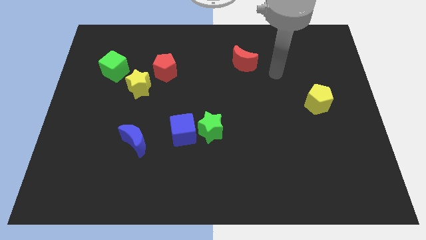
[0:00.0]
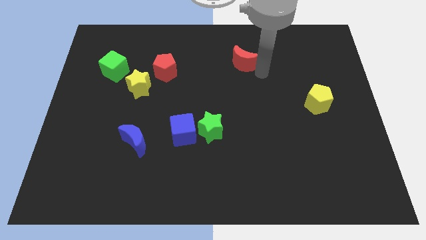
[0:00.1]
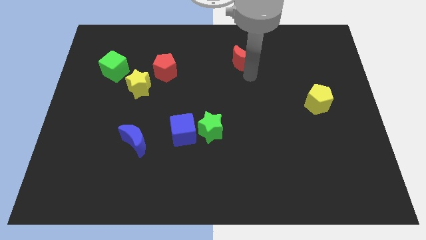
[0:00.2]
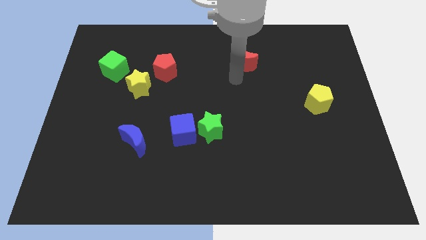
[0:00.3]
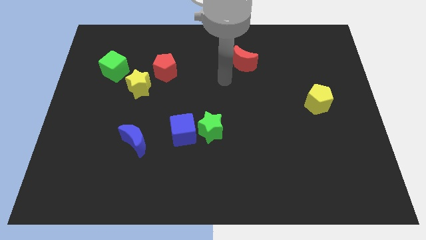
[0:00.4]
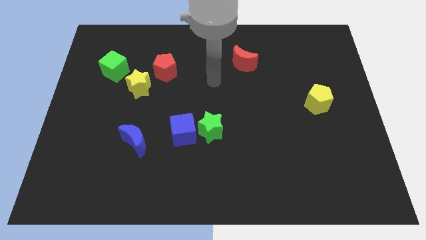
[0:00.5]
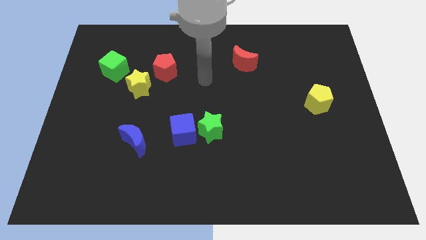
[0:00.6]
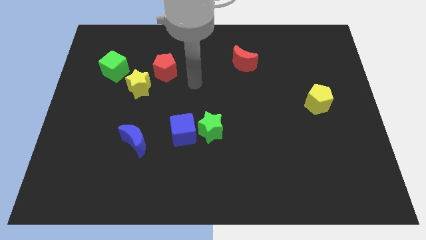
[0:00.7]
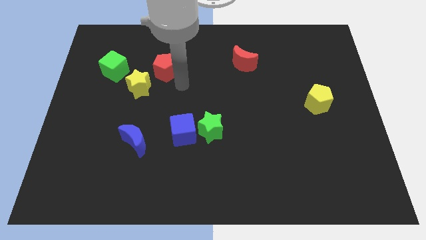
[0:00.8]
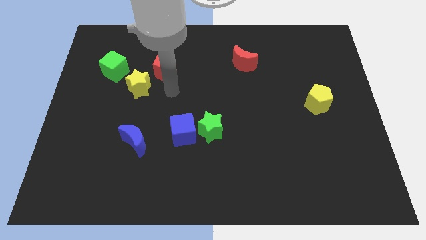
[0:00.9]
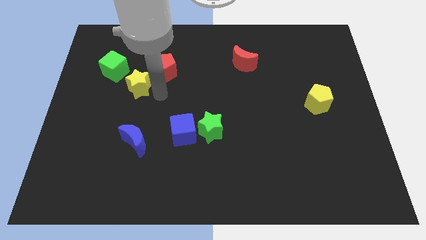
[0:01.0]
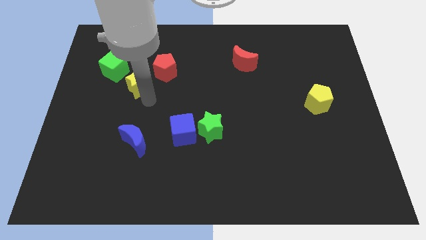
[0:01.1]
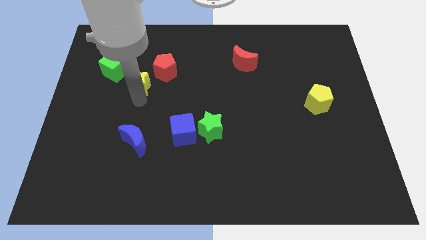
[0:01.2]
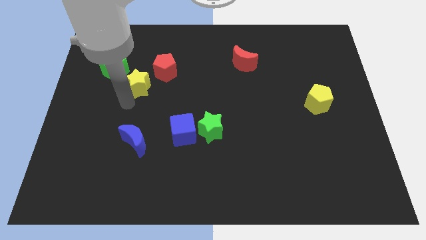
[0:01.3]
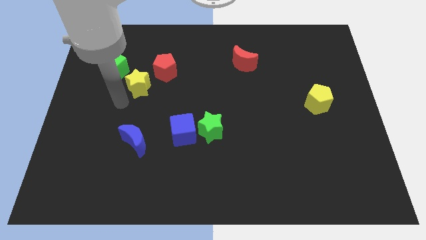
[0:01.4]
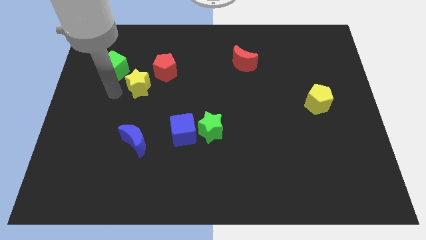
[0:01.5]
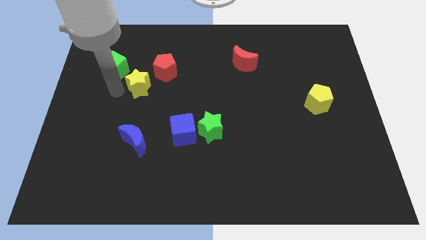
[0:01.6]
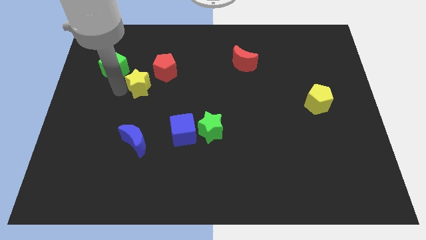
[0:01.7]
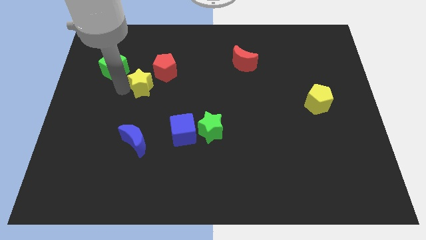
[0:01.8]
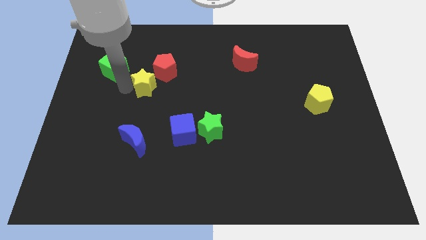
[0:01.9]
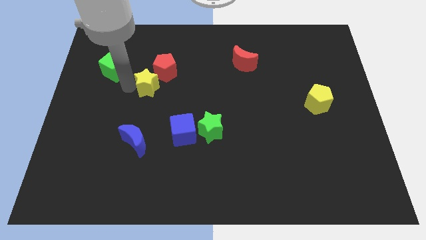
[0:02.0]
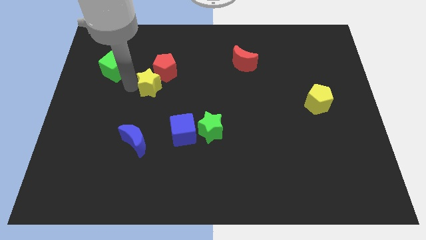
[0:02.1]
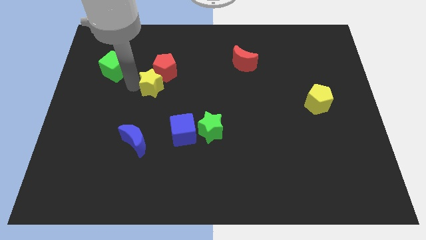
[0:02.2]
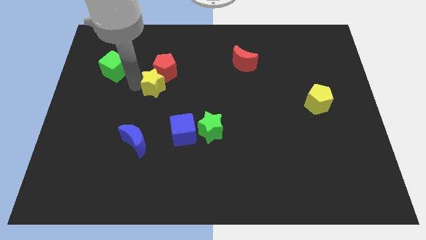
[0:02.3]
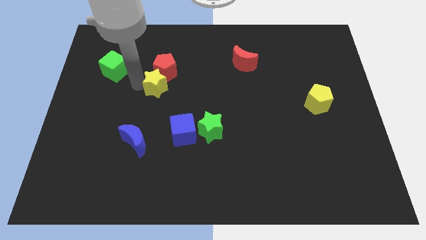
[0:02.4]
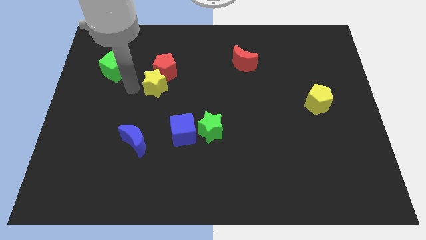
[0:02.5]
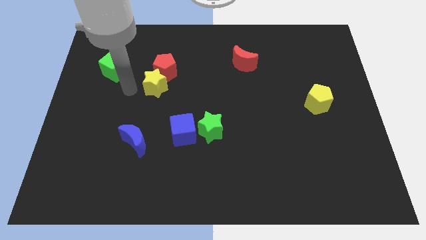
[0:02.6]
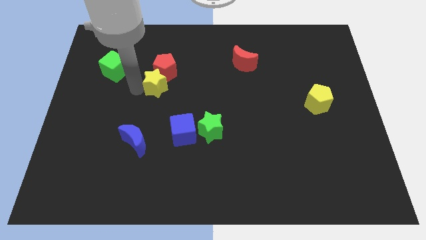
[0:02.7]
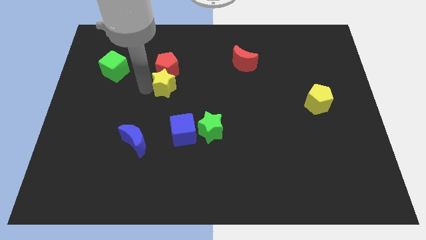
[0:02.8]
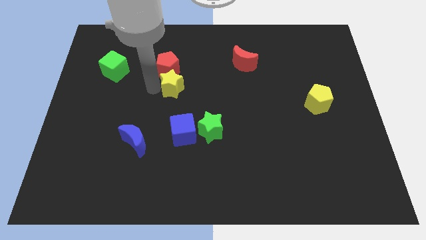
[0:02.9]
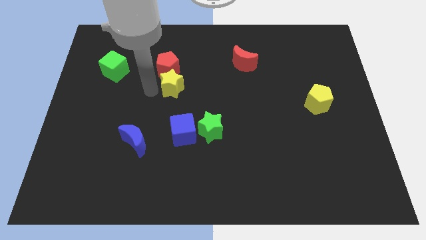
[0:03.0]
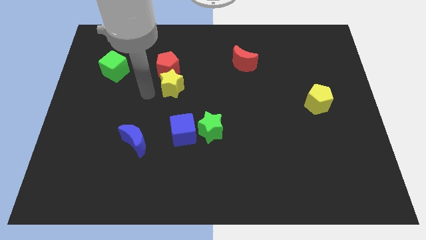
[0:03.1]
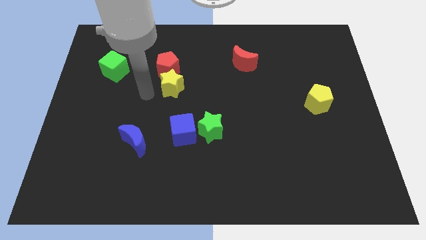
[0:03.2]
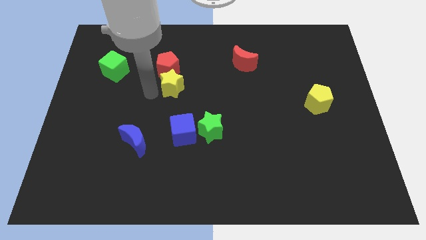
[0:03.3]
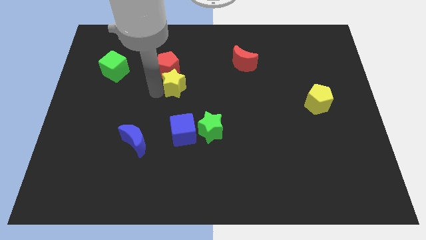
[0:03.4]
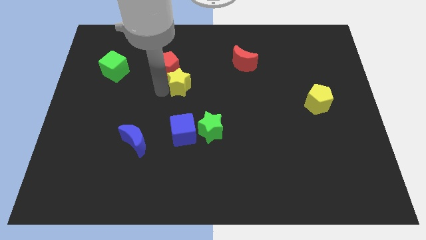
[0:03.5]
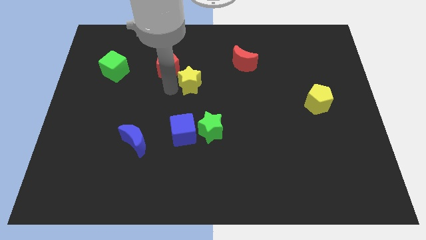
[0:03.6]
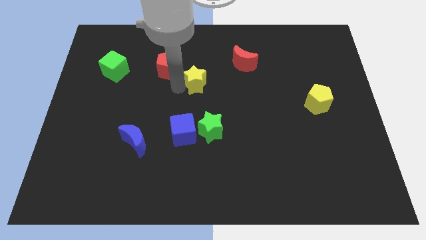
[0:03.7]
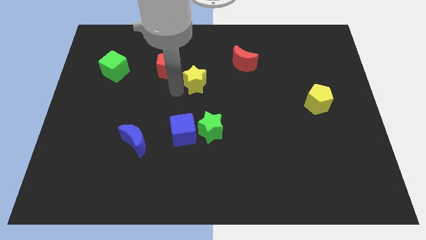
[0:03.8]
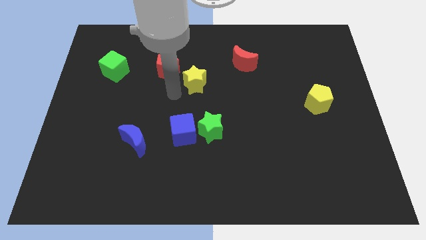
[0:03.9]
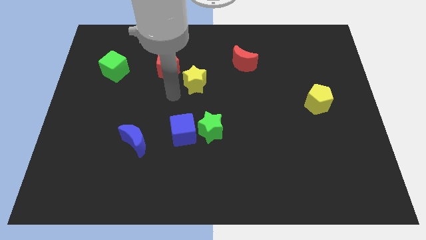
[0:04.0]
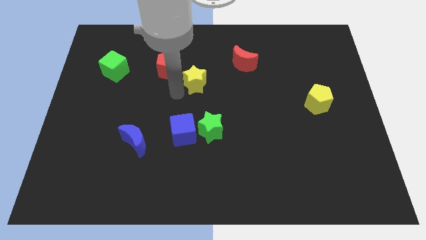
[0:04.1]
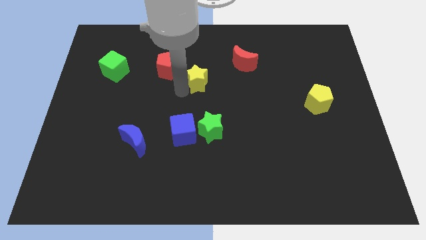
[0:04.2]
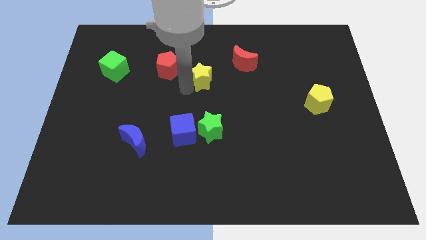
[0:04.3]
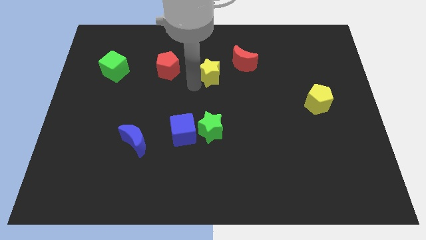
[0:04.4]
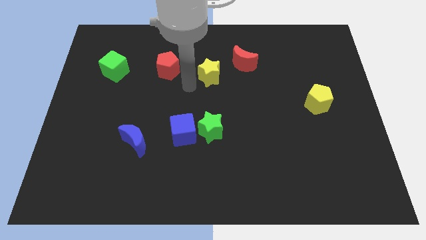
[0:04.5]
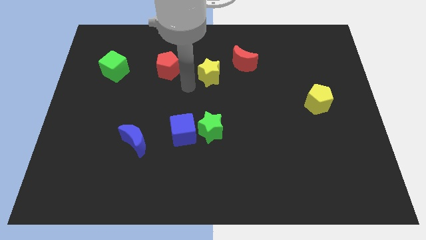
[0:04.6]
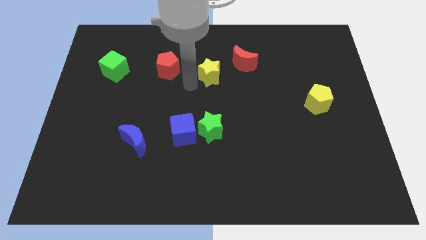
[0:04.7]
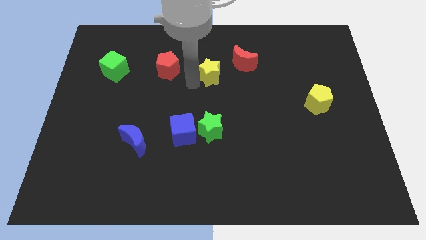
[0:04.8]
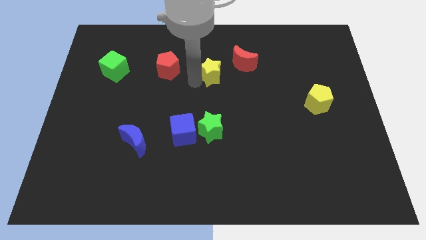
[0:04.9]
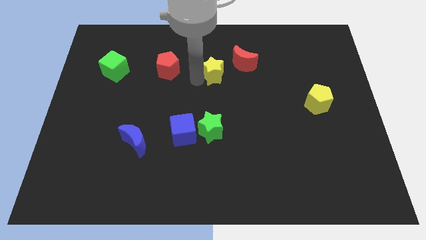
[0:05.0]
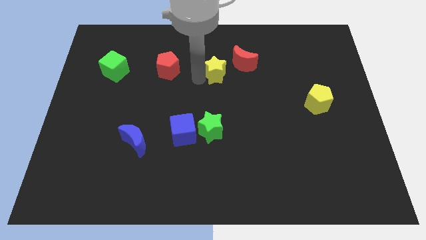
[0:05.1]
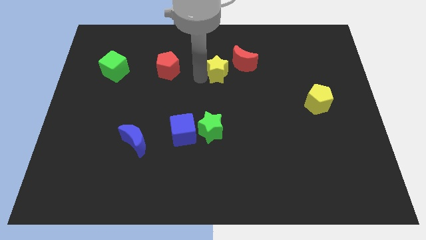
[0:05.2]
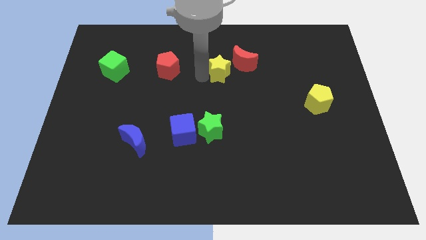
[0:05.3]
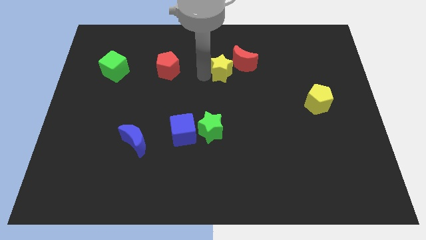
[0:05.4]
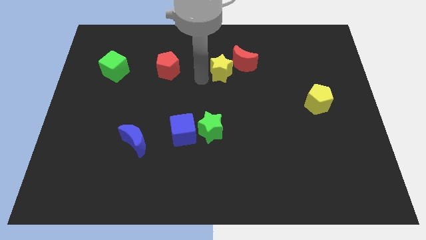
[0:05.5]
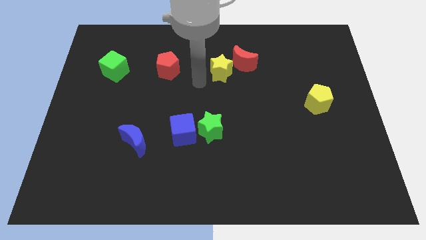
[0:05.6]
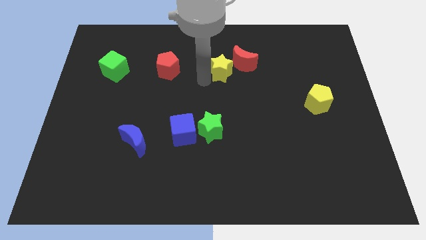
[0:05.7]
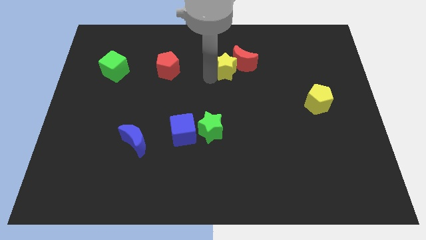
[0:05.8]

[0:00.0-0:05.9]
slide the yellow star to the red moon

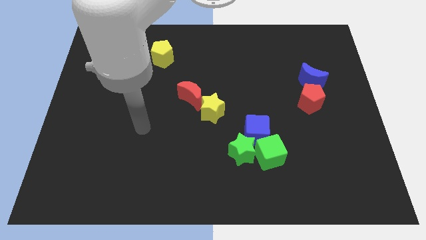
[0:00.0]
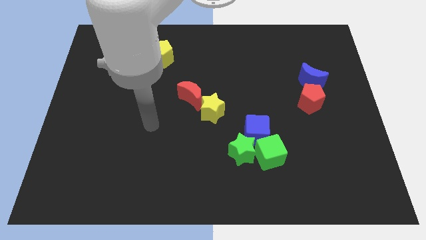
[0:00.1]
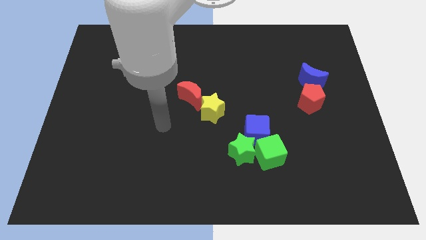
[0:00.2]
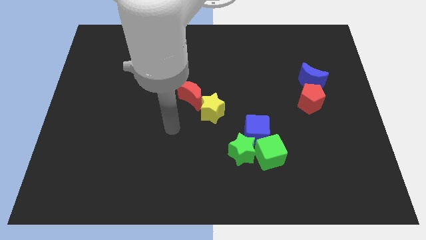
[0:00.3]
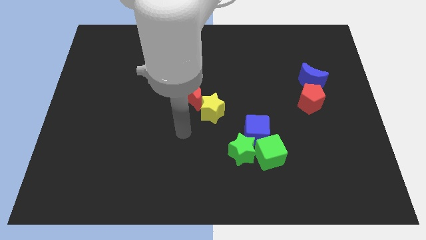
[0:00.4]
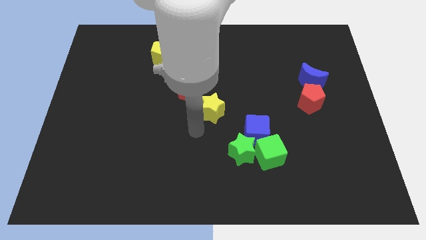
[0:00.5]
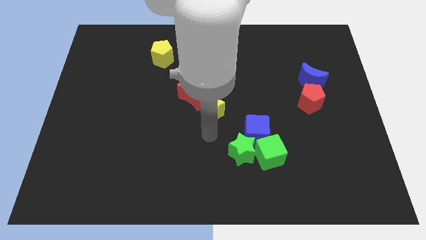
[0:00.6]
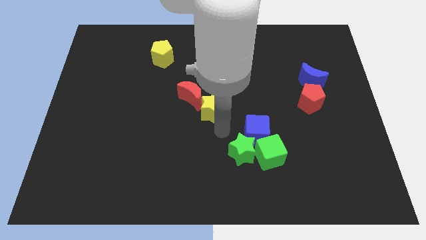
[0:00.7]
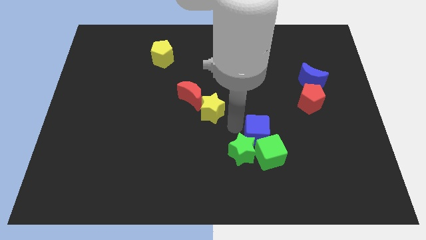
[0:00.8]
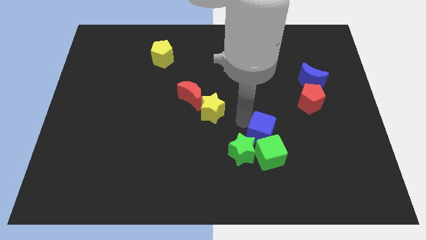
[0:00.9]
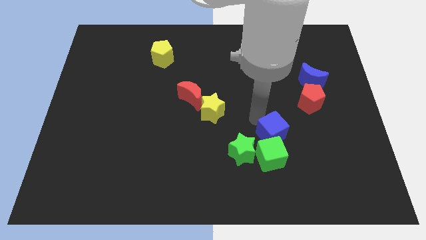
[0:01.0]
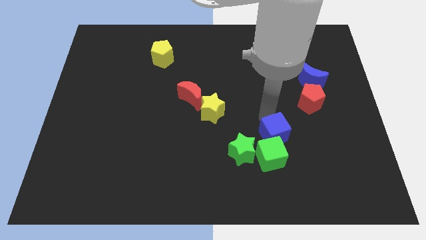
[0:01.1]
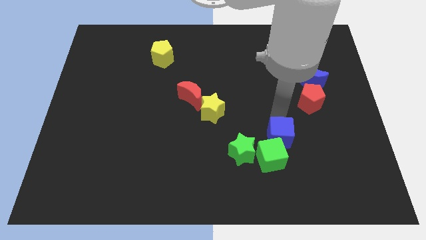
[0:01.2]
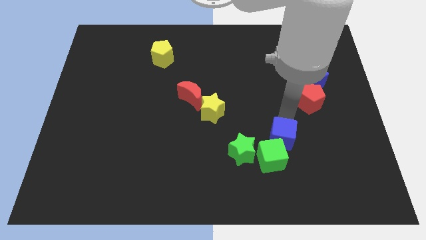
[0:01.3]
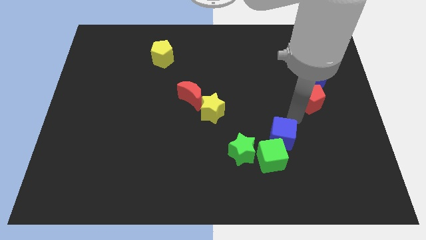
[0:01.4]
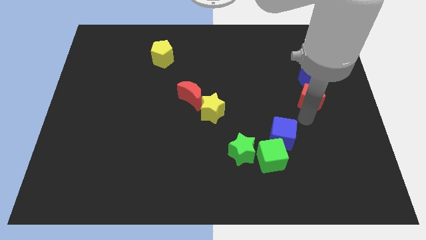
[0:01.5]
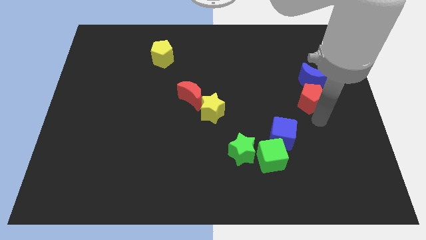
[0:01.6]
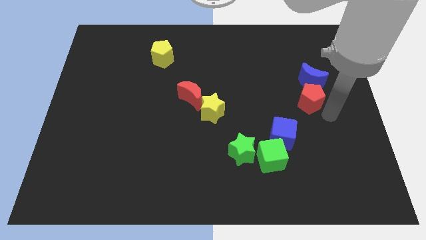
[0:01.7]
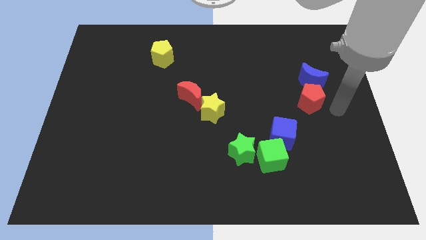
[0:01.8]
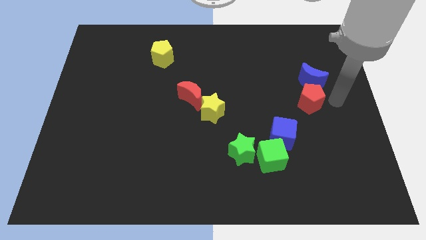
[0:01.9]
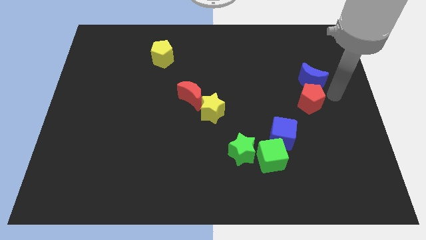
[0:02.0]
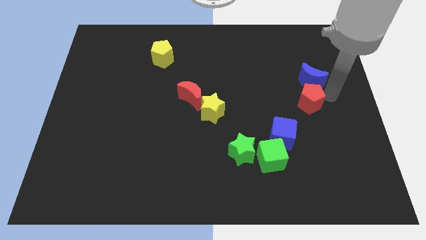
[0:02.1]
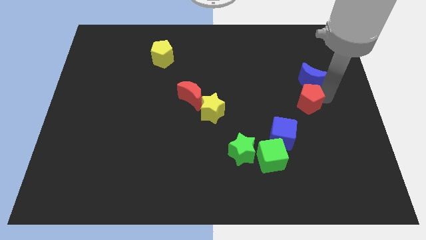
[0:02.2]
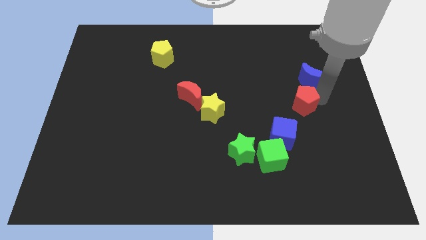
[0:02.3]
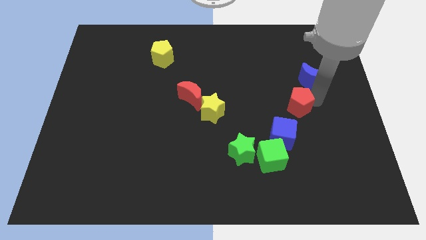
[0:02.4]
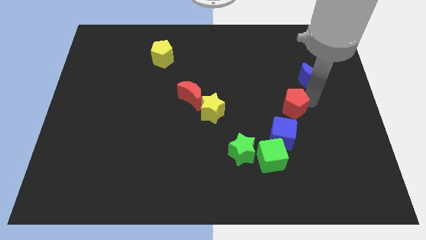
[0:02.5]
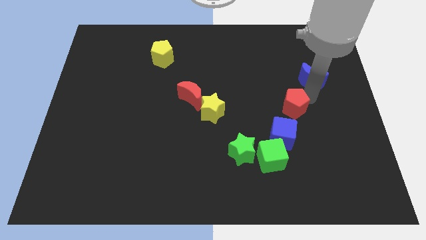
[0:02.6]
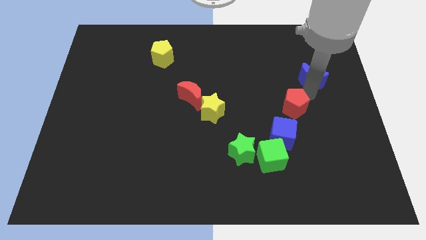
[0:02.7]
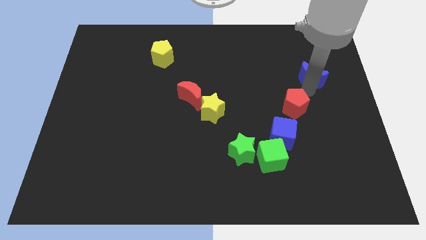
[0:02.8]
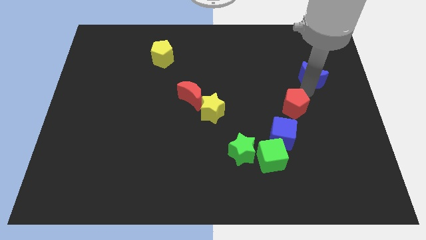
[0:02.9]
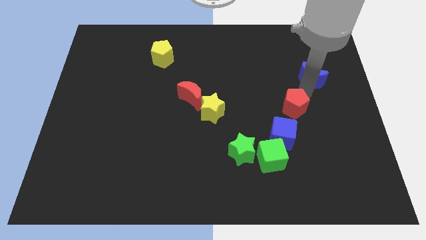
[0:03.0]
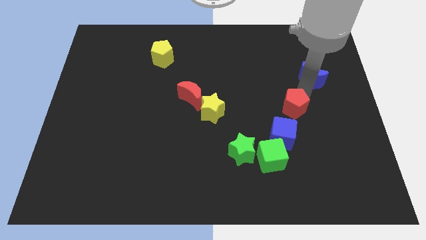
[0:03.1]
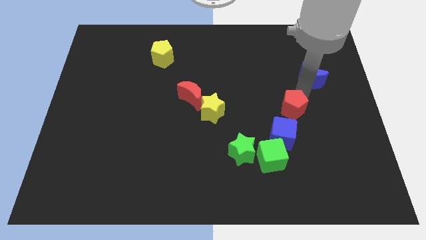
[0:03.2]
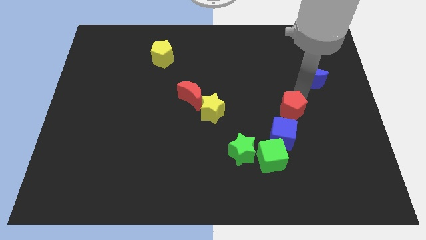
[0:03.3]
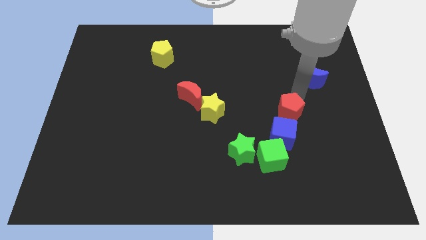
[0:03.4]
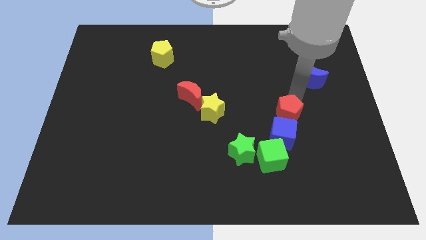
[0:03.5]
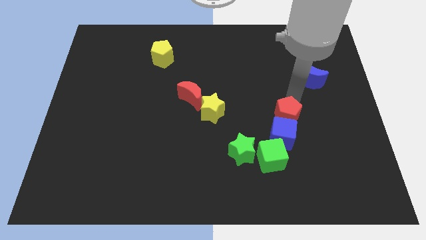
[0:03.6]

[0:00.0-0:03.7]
slide the red pentagon next to the blue cube
